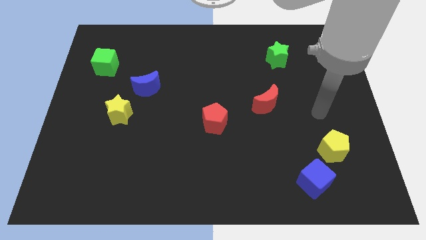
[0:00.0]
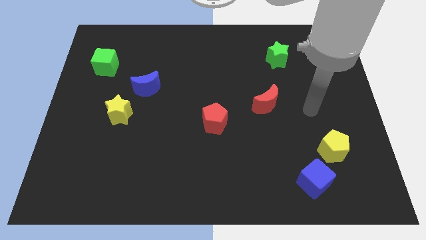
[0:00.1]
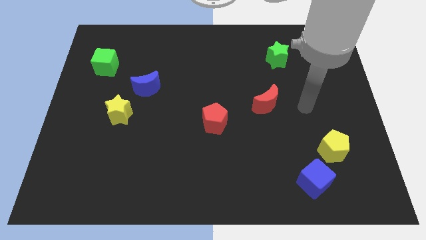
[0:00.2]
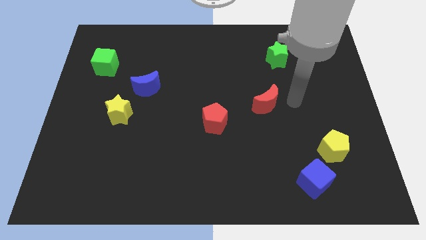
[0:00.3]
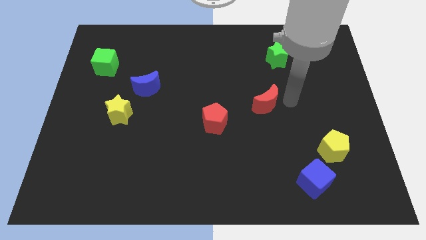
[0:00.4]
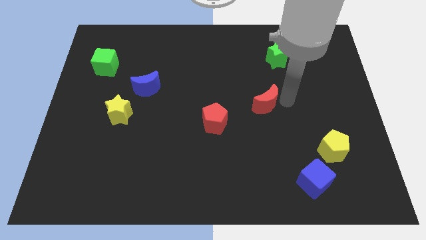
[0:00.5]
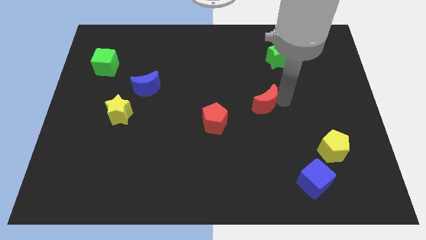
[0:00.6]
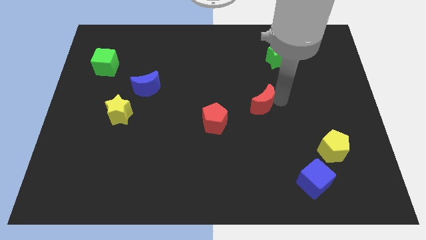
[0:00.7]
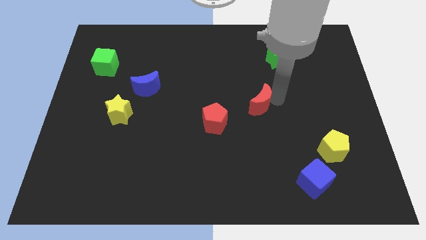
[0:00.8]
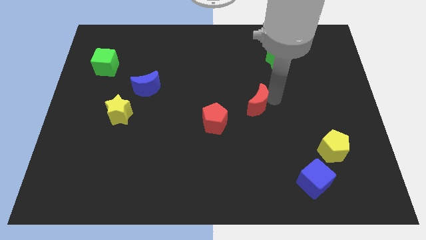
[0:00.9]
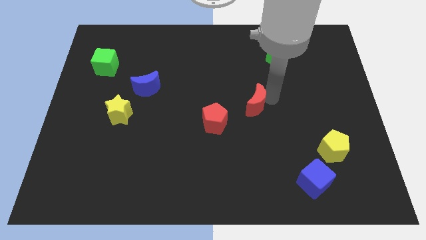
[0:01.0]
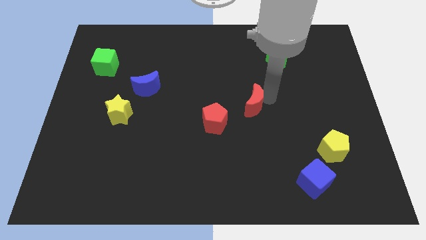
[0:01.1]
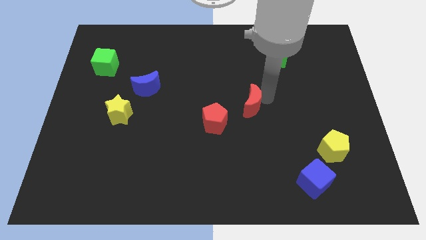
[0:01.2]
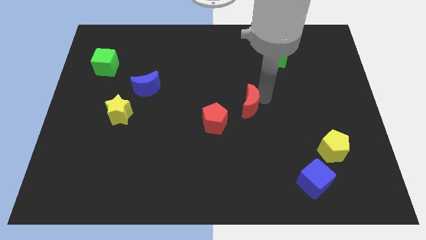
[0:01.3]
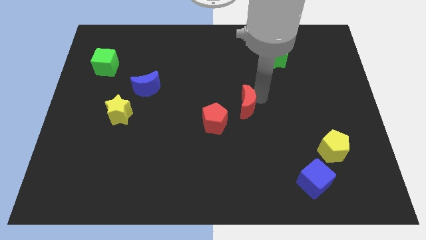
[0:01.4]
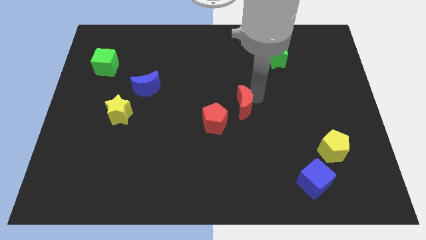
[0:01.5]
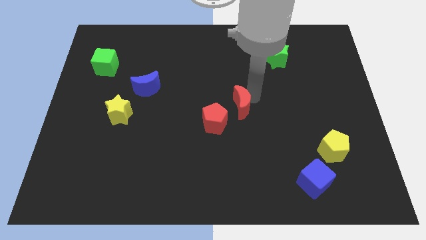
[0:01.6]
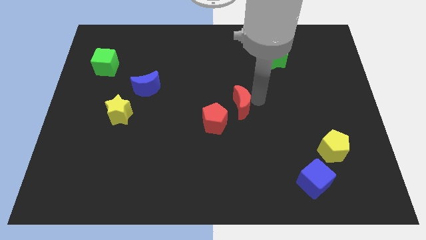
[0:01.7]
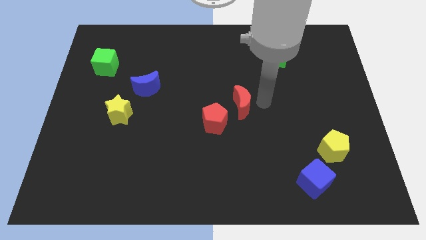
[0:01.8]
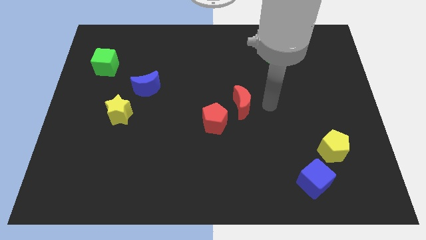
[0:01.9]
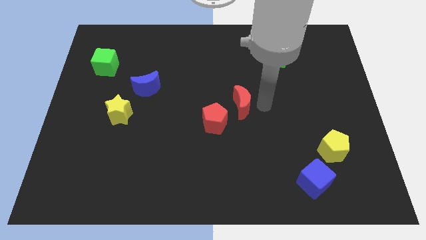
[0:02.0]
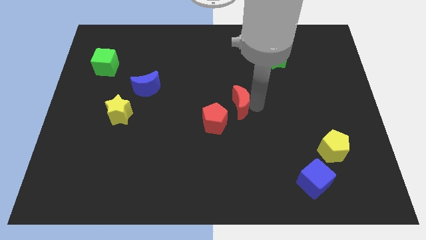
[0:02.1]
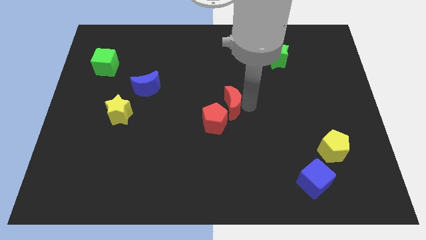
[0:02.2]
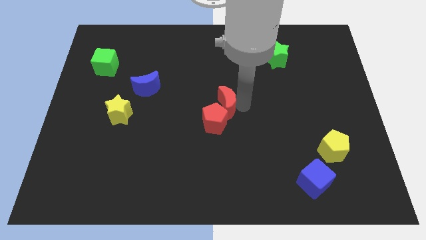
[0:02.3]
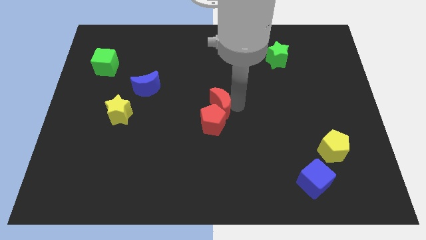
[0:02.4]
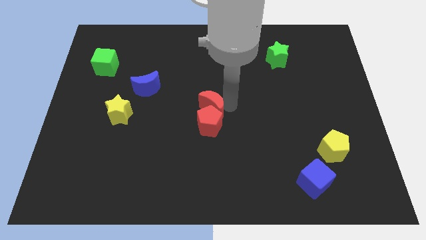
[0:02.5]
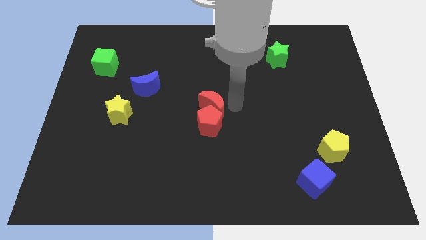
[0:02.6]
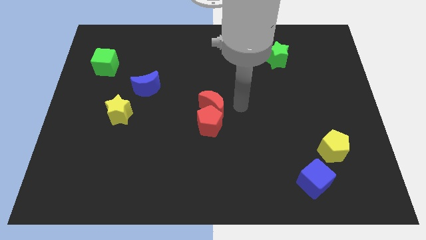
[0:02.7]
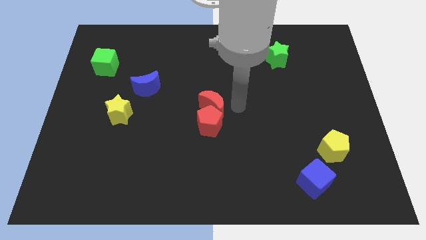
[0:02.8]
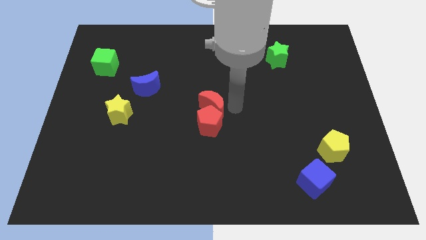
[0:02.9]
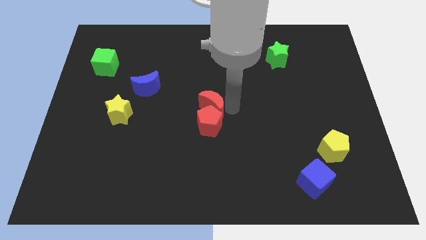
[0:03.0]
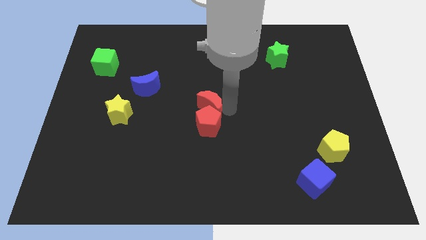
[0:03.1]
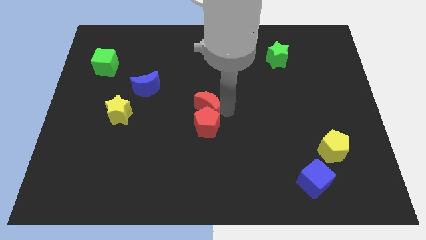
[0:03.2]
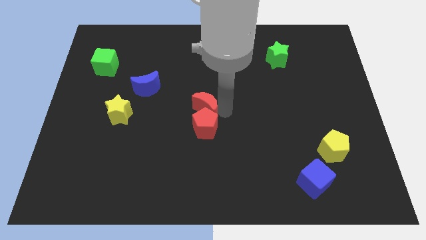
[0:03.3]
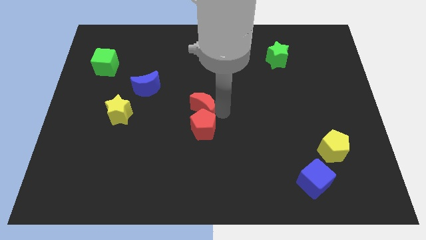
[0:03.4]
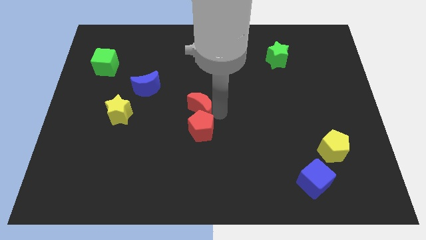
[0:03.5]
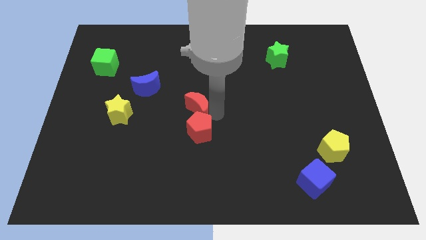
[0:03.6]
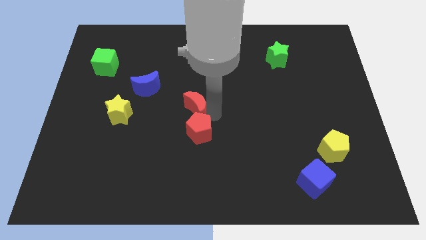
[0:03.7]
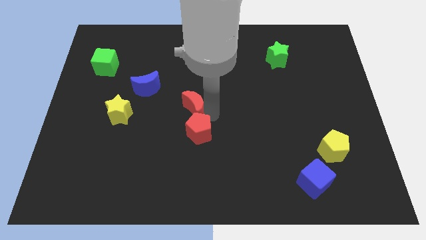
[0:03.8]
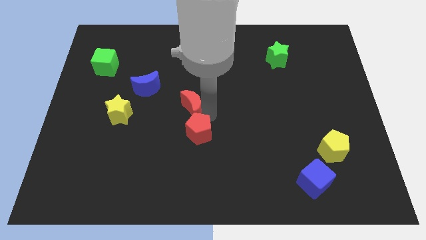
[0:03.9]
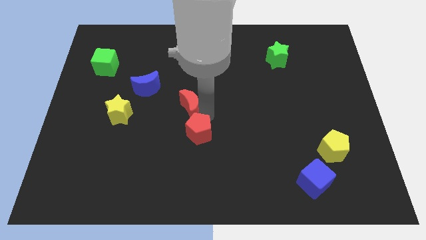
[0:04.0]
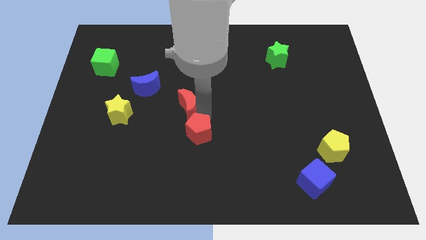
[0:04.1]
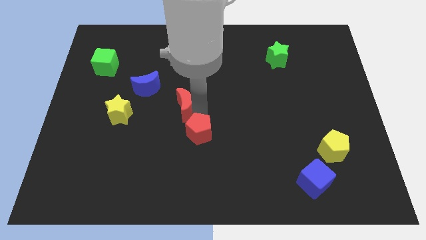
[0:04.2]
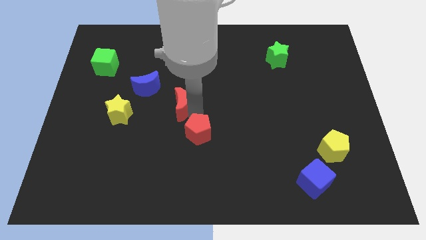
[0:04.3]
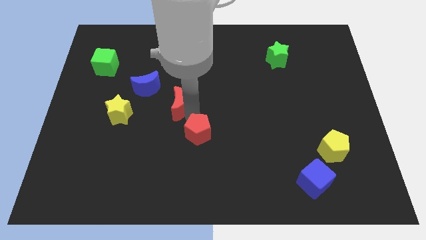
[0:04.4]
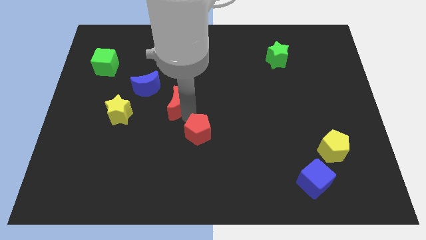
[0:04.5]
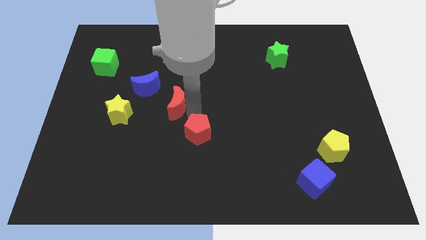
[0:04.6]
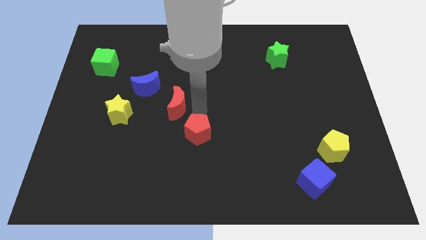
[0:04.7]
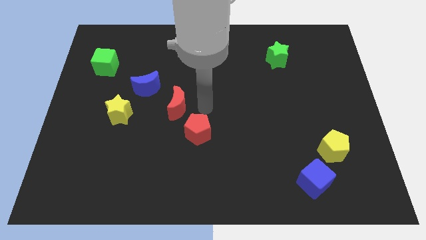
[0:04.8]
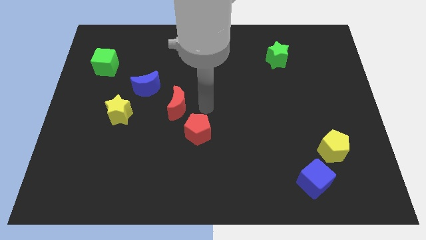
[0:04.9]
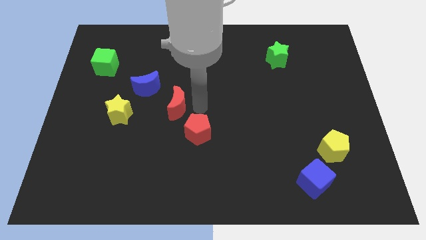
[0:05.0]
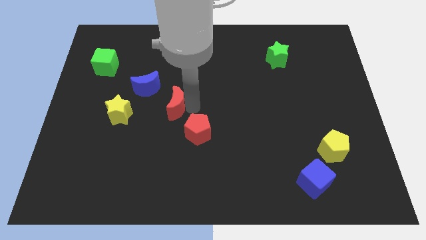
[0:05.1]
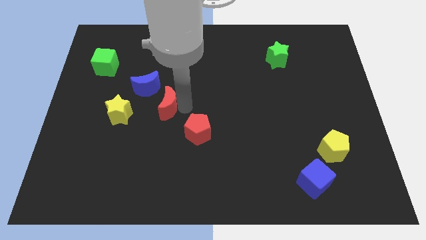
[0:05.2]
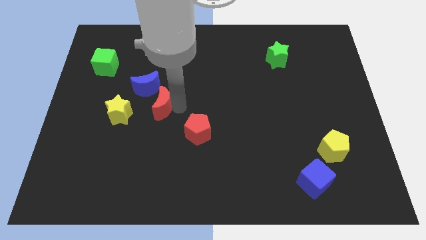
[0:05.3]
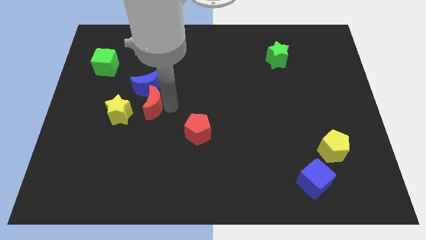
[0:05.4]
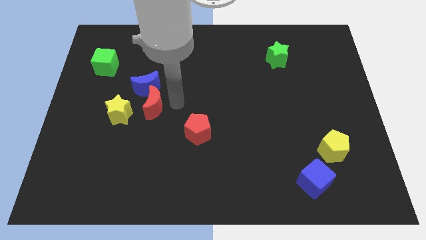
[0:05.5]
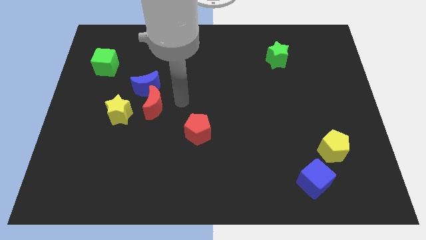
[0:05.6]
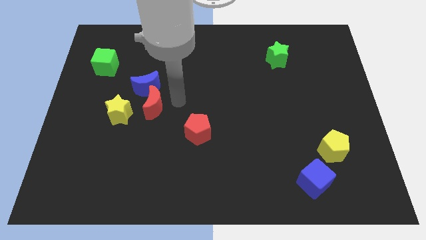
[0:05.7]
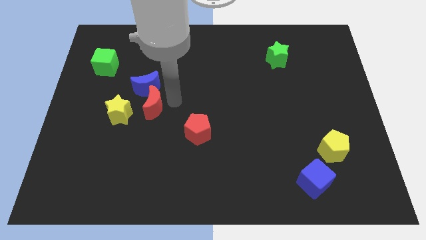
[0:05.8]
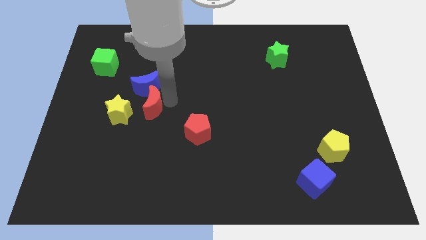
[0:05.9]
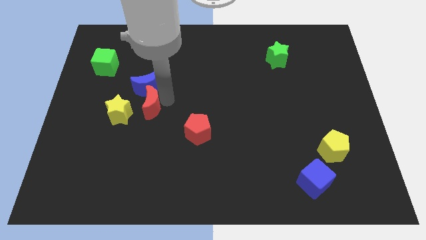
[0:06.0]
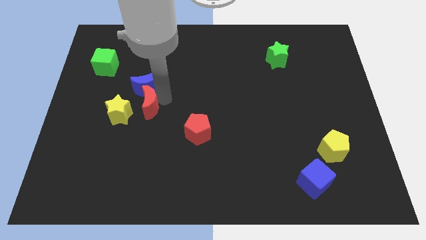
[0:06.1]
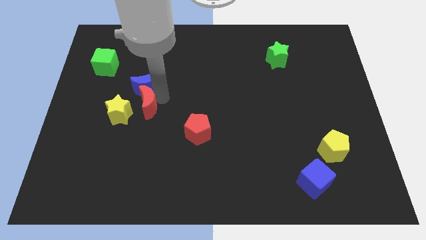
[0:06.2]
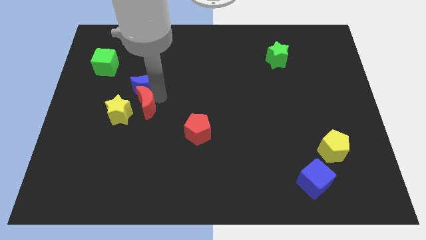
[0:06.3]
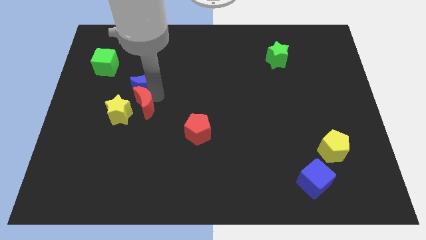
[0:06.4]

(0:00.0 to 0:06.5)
move the red moon close to the yellow star

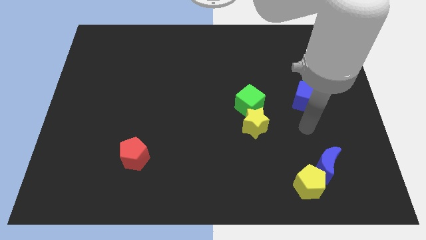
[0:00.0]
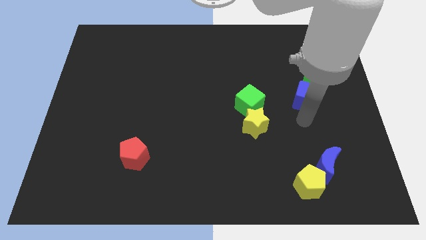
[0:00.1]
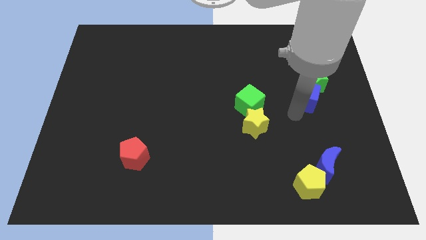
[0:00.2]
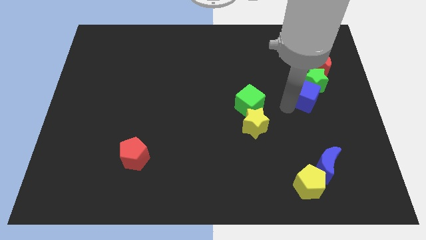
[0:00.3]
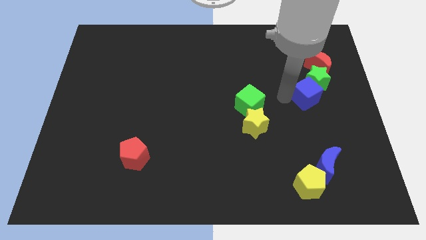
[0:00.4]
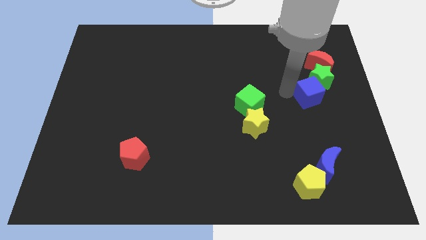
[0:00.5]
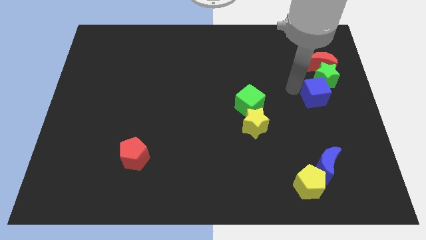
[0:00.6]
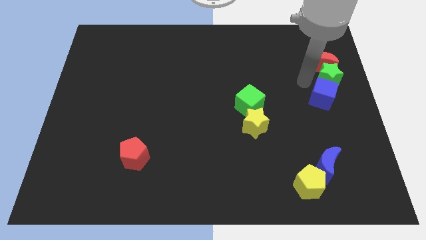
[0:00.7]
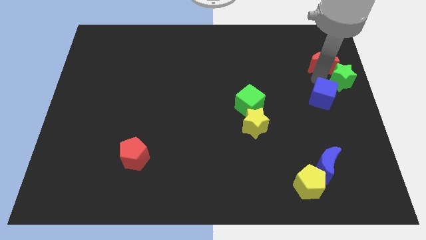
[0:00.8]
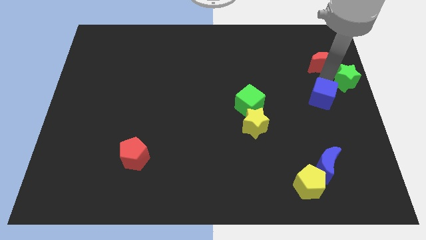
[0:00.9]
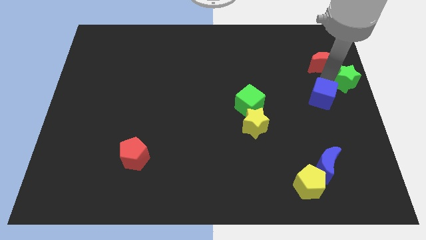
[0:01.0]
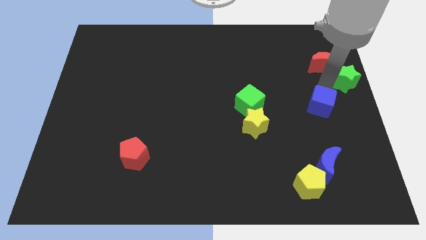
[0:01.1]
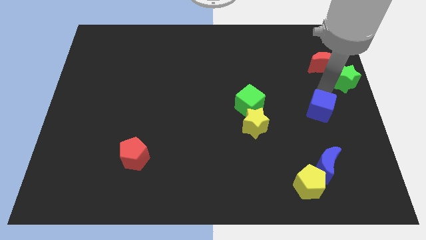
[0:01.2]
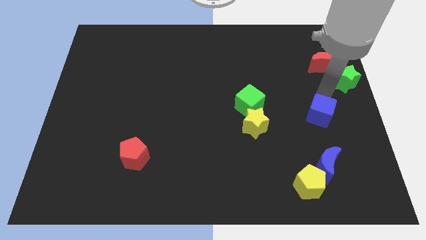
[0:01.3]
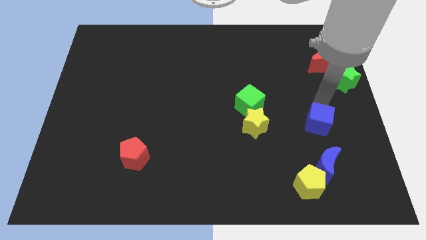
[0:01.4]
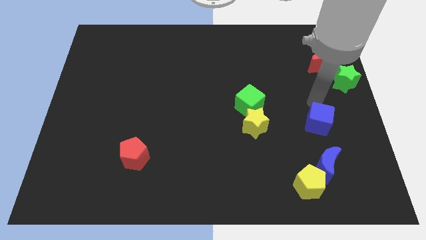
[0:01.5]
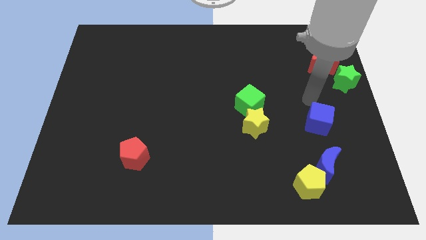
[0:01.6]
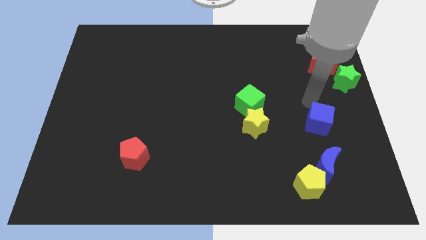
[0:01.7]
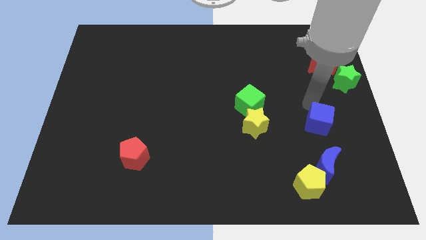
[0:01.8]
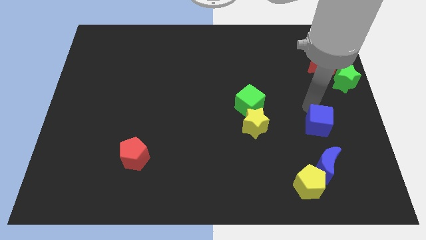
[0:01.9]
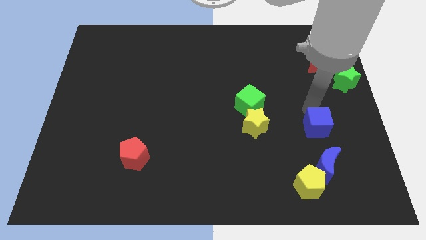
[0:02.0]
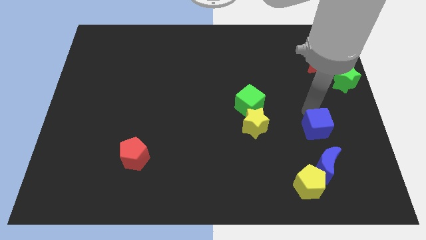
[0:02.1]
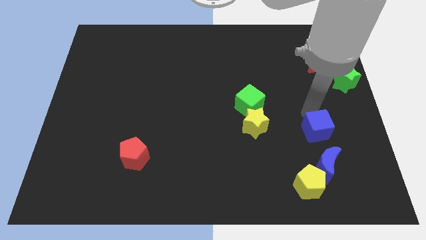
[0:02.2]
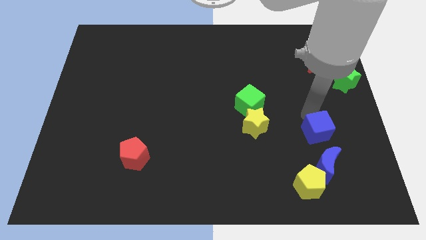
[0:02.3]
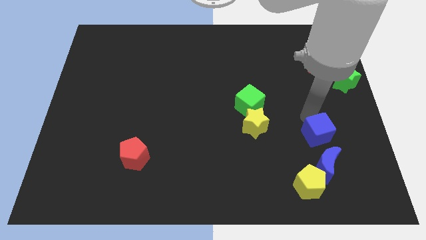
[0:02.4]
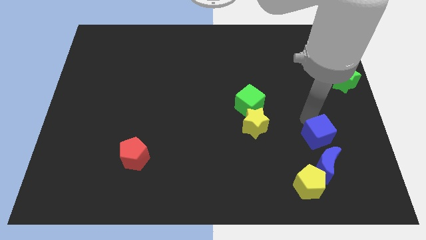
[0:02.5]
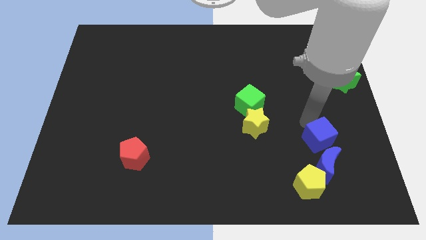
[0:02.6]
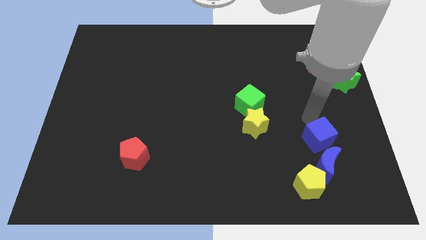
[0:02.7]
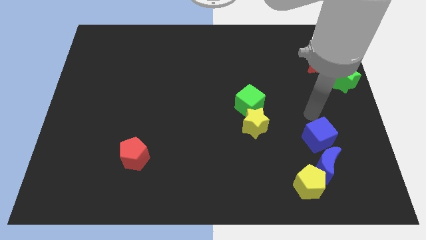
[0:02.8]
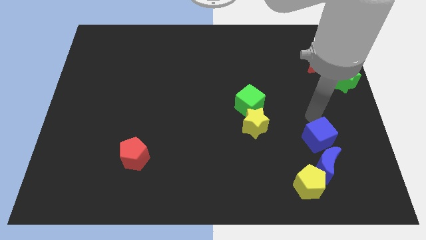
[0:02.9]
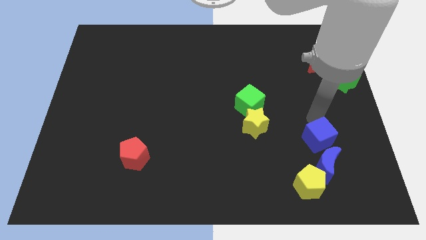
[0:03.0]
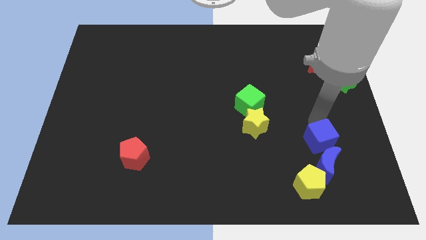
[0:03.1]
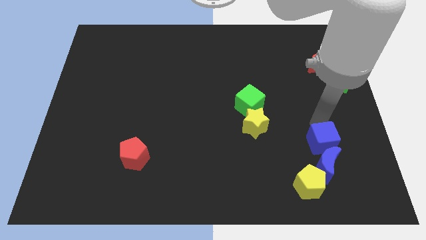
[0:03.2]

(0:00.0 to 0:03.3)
push the blue cube close to the blue moon
